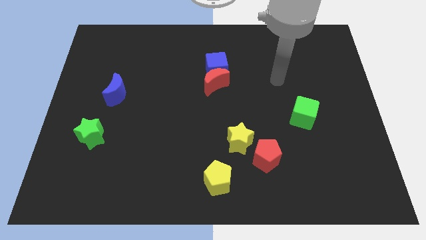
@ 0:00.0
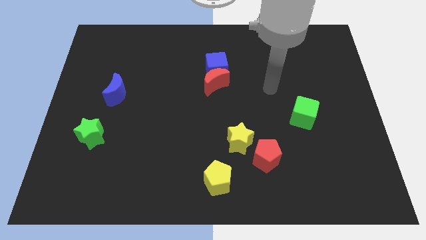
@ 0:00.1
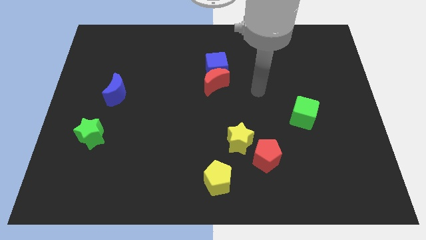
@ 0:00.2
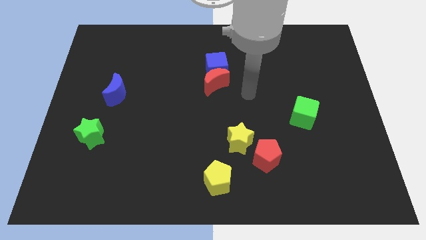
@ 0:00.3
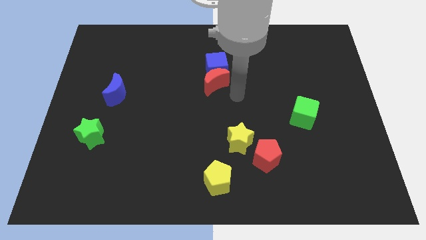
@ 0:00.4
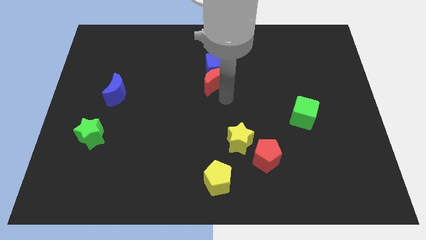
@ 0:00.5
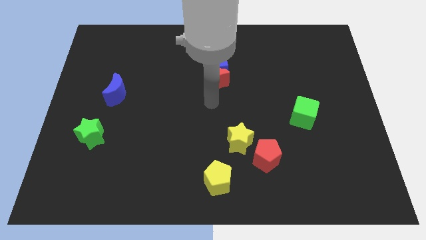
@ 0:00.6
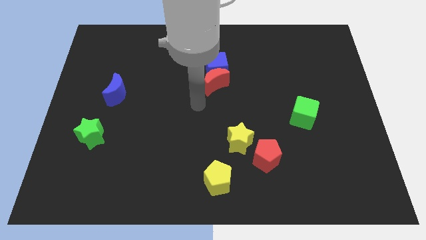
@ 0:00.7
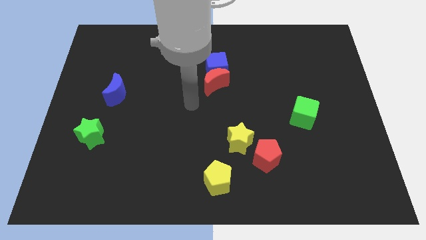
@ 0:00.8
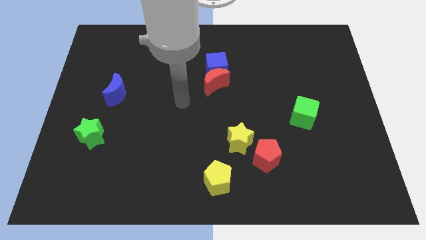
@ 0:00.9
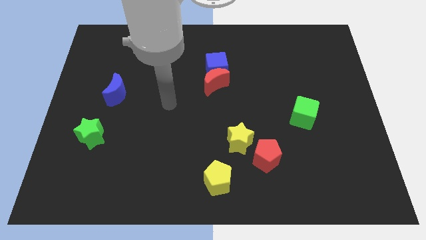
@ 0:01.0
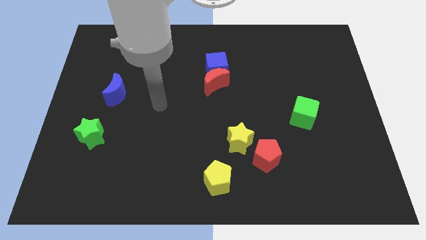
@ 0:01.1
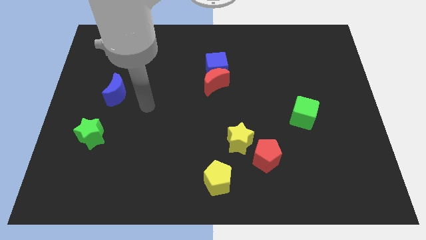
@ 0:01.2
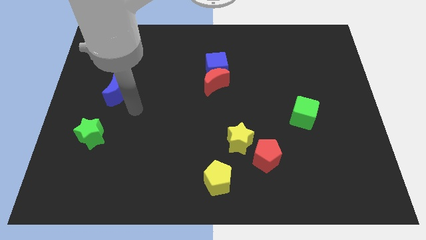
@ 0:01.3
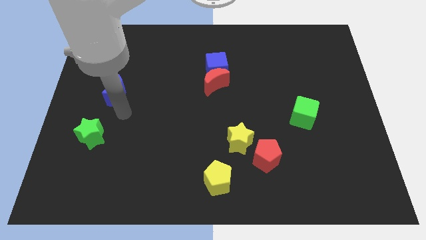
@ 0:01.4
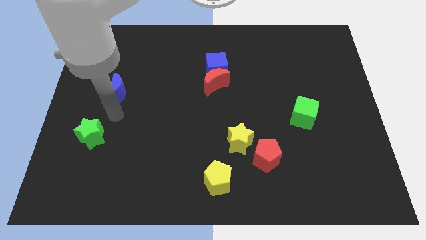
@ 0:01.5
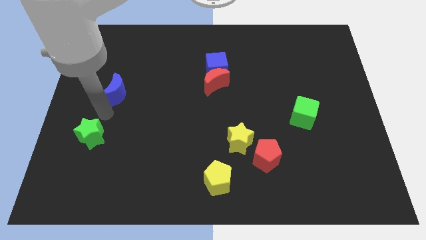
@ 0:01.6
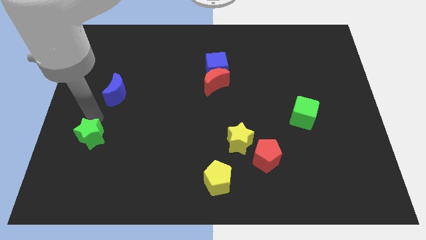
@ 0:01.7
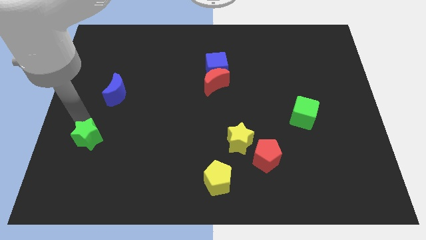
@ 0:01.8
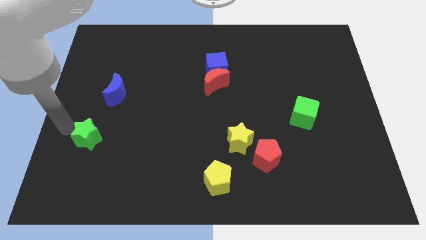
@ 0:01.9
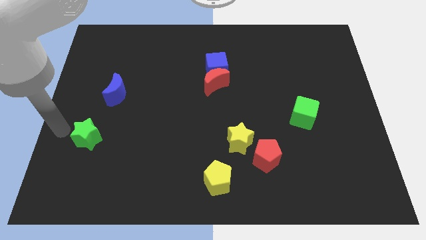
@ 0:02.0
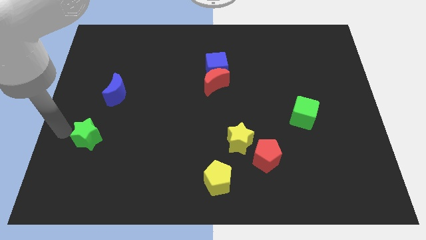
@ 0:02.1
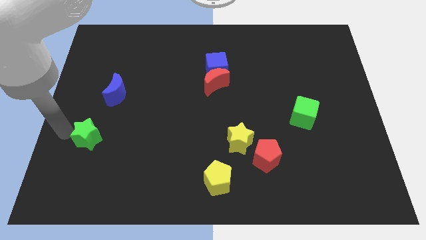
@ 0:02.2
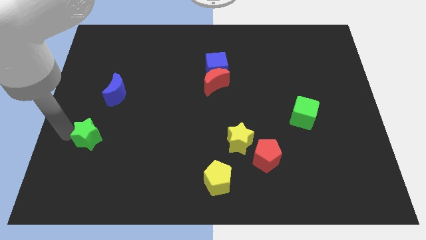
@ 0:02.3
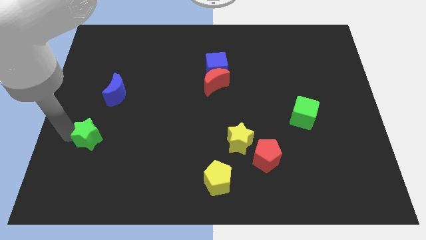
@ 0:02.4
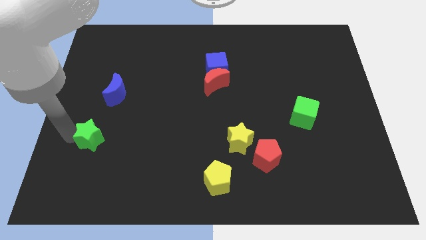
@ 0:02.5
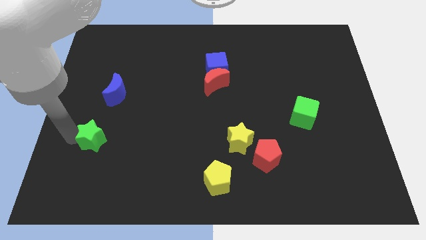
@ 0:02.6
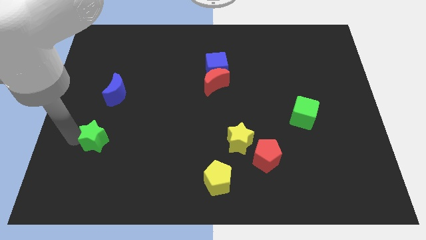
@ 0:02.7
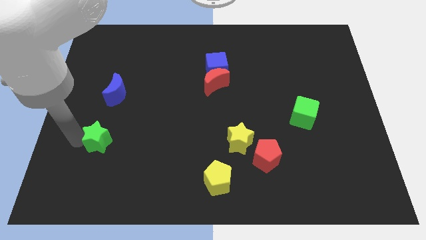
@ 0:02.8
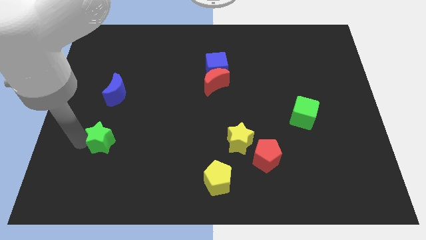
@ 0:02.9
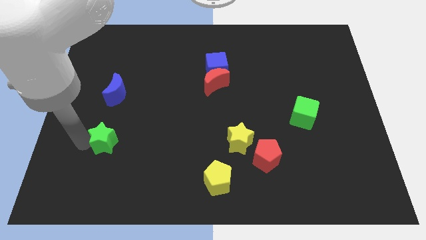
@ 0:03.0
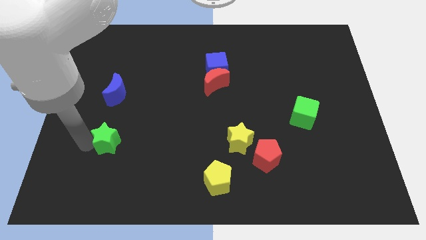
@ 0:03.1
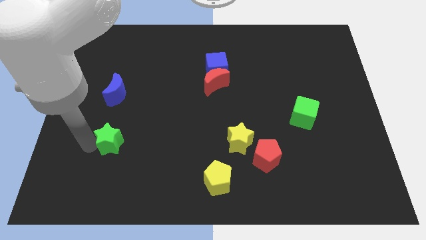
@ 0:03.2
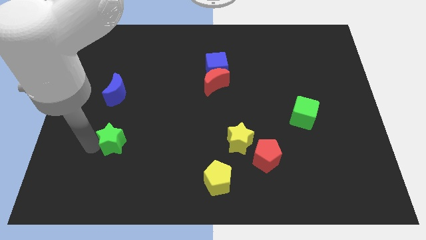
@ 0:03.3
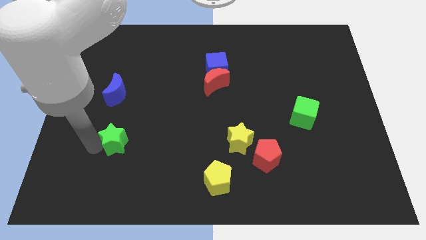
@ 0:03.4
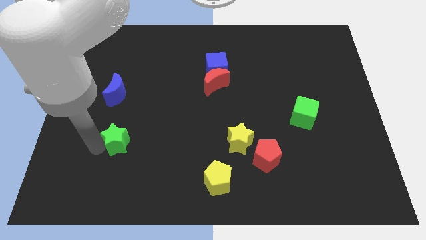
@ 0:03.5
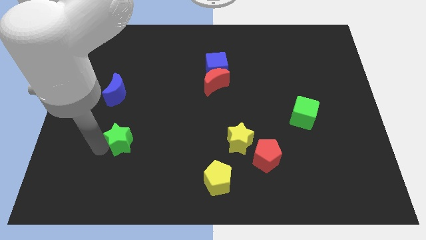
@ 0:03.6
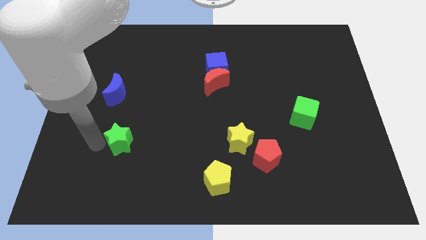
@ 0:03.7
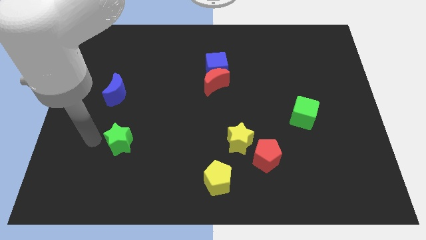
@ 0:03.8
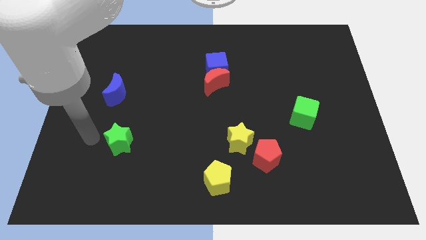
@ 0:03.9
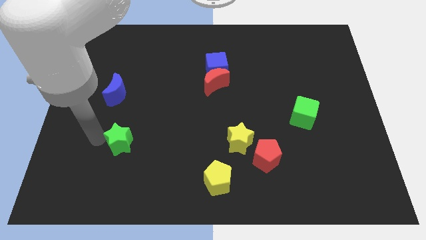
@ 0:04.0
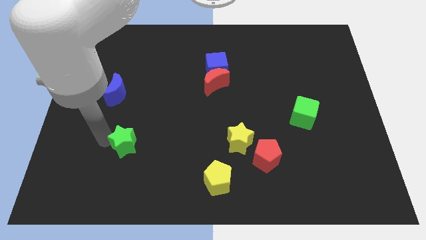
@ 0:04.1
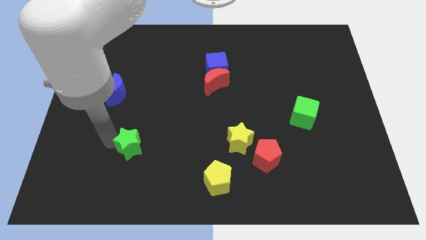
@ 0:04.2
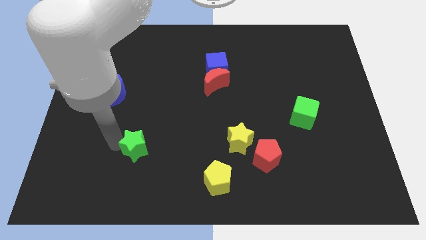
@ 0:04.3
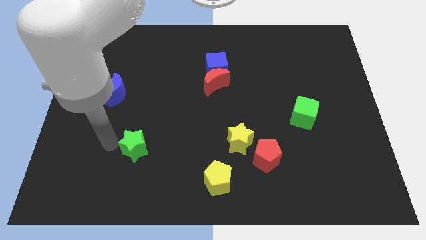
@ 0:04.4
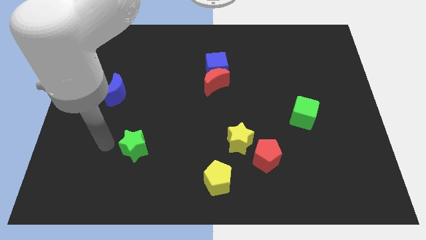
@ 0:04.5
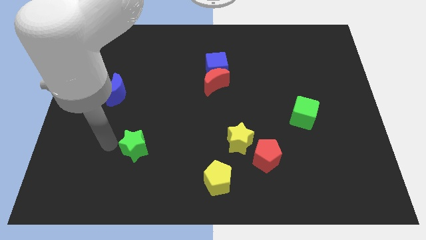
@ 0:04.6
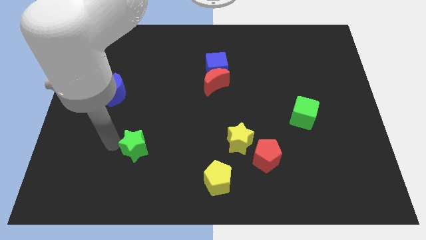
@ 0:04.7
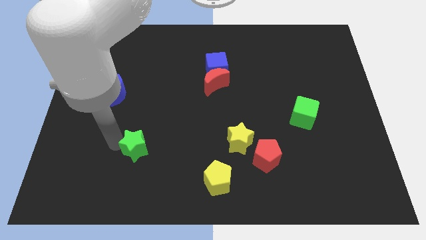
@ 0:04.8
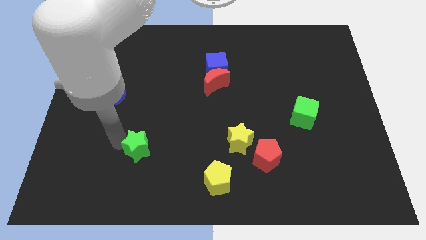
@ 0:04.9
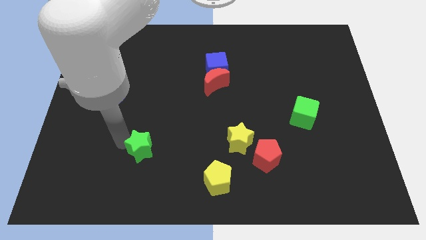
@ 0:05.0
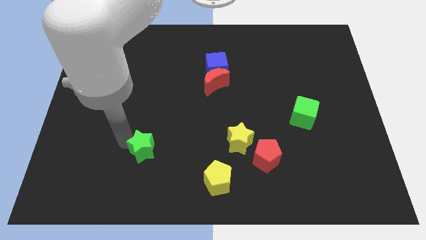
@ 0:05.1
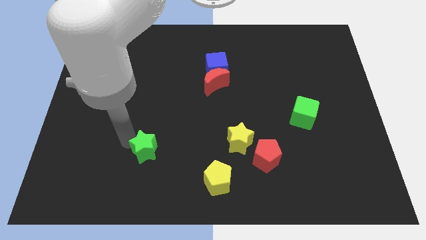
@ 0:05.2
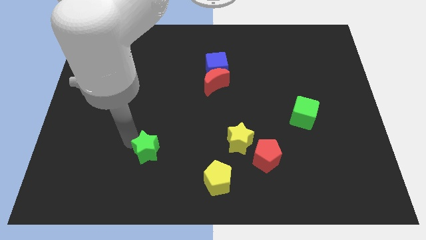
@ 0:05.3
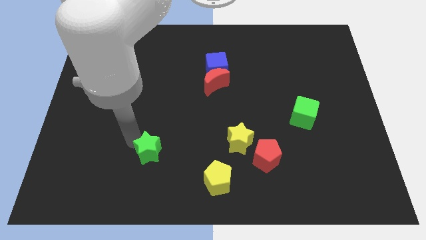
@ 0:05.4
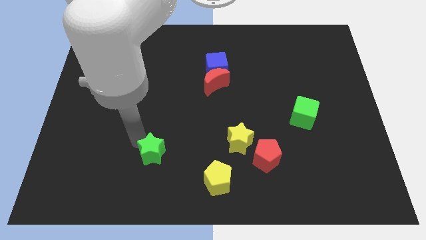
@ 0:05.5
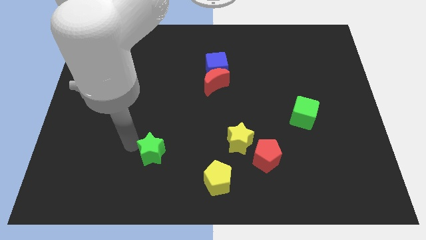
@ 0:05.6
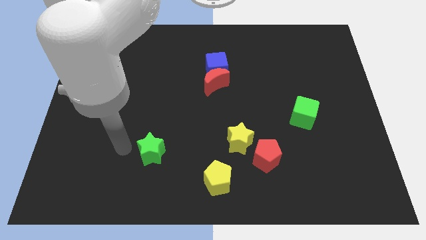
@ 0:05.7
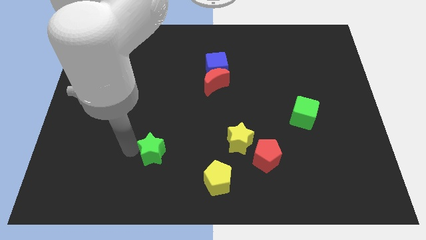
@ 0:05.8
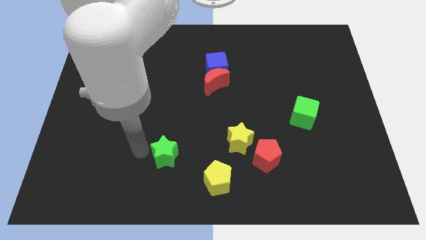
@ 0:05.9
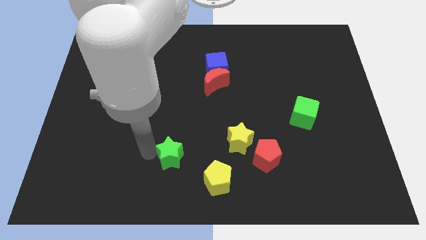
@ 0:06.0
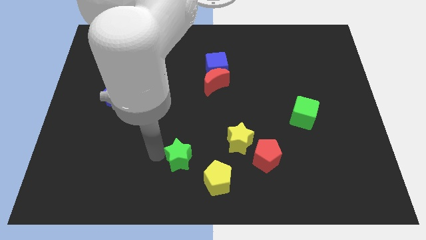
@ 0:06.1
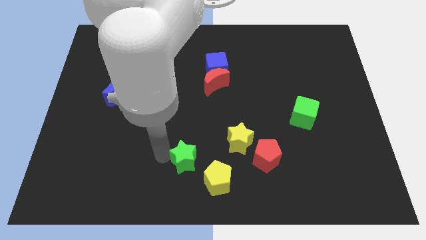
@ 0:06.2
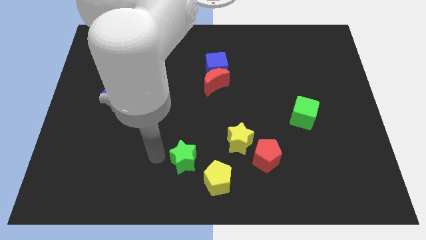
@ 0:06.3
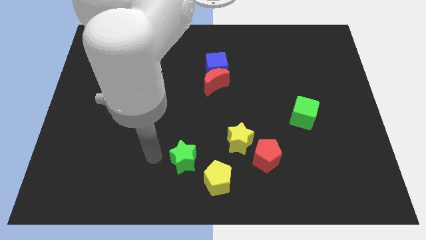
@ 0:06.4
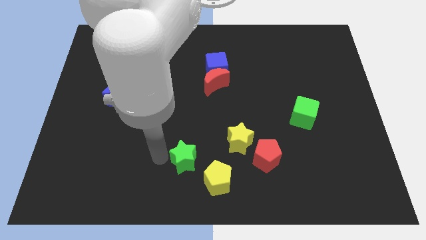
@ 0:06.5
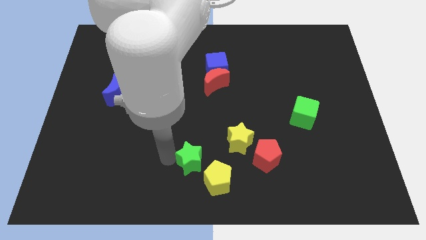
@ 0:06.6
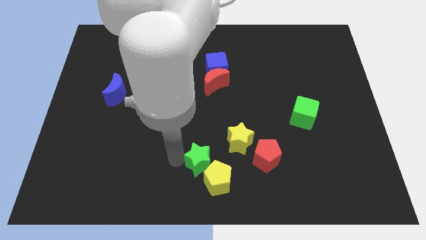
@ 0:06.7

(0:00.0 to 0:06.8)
put the green star to the bottom left of the yellow star
